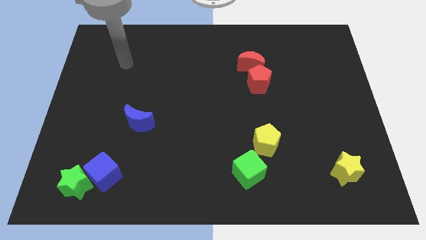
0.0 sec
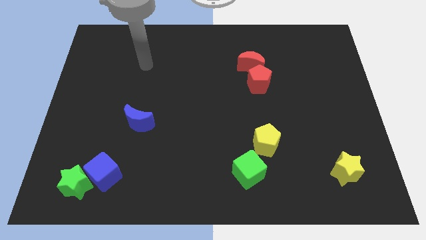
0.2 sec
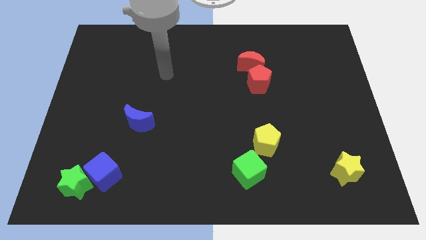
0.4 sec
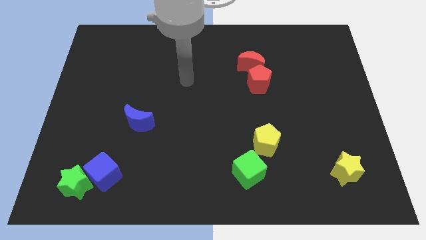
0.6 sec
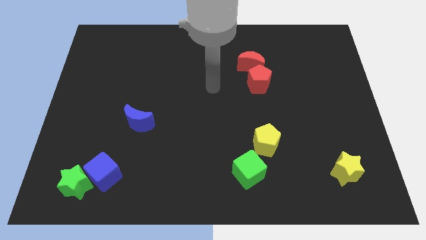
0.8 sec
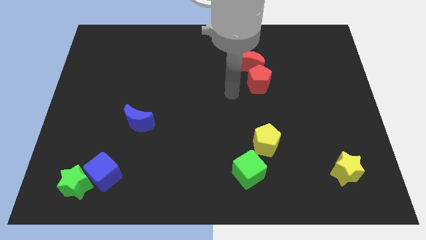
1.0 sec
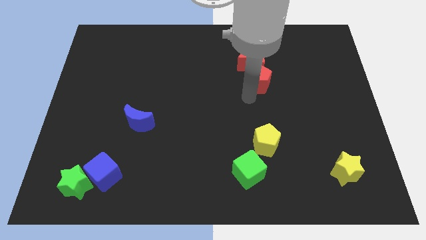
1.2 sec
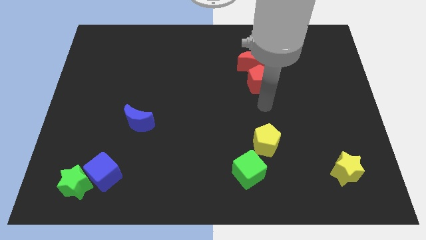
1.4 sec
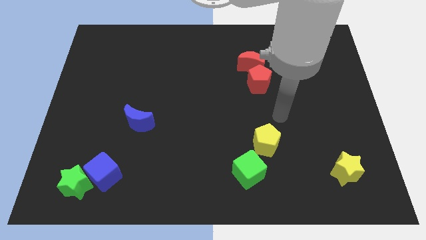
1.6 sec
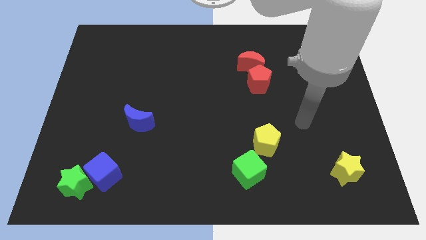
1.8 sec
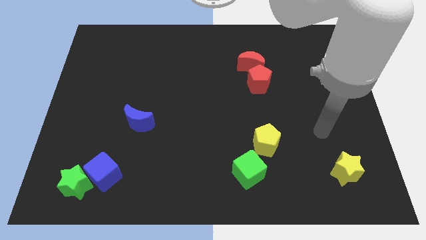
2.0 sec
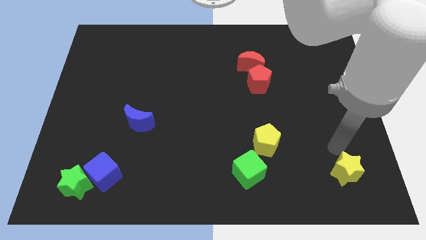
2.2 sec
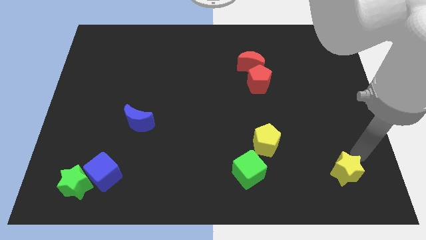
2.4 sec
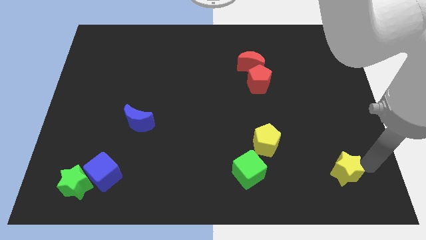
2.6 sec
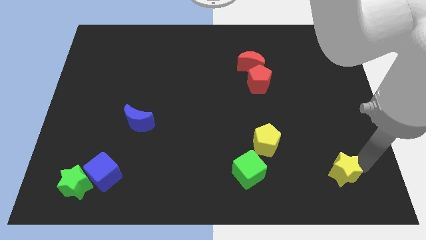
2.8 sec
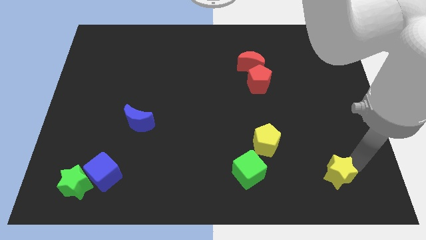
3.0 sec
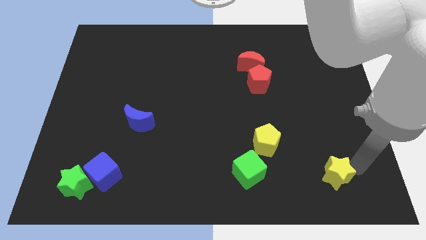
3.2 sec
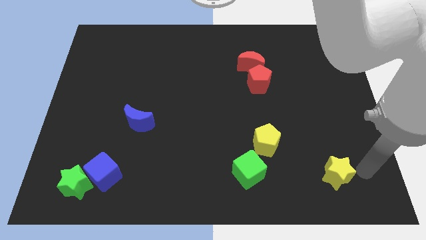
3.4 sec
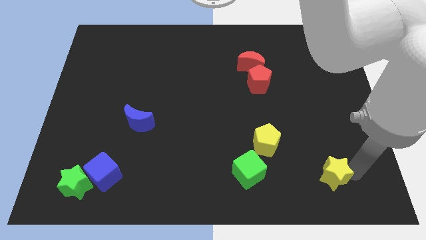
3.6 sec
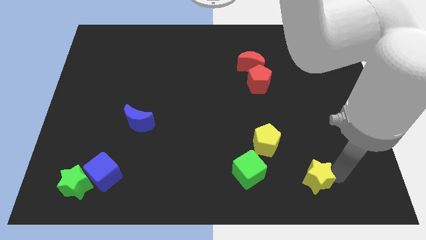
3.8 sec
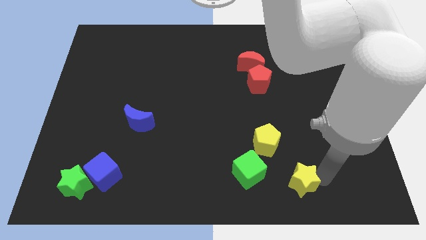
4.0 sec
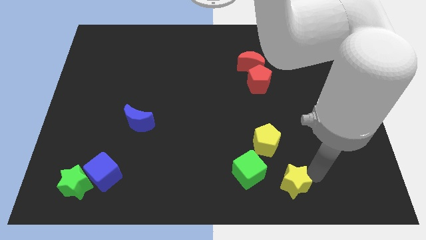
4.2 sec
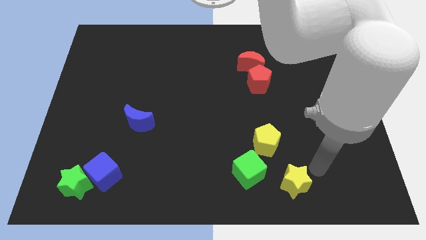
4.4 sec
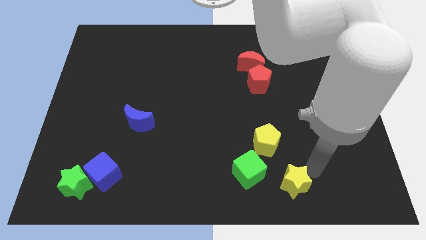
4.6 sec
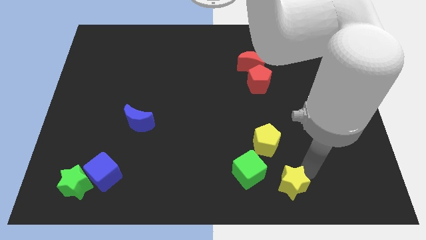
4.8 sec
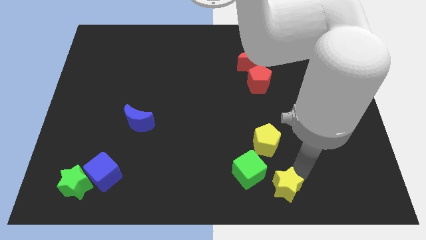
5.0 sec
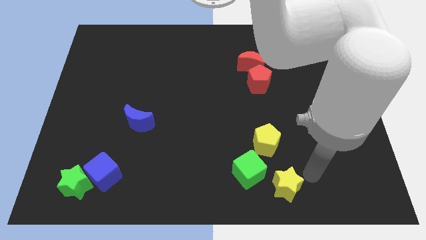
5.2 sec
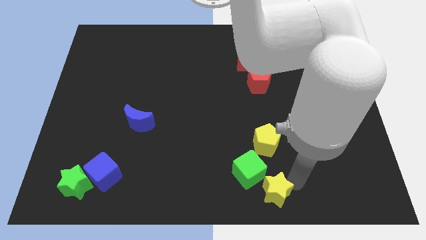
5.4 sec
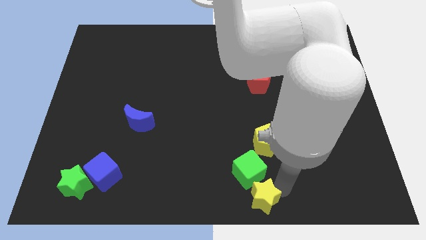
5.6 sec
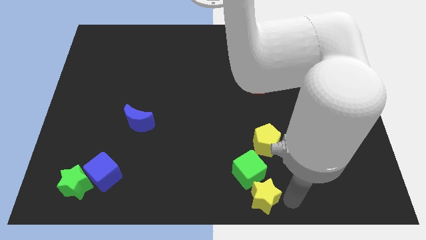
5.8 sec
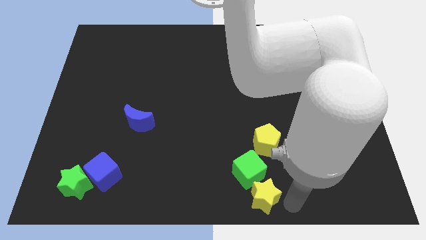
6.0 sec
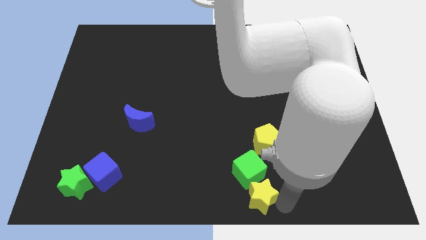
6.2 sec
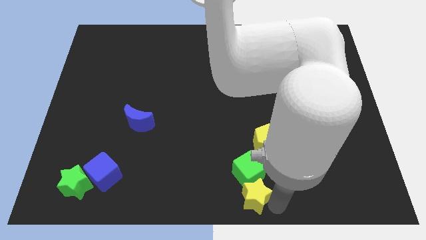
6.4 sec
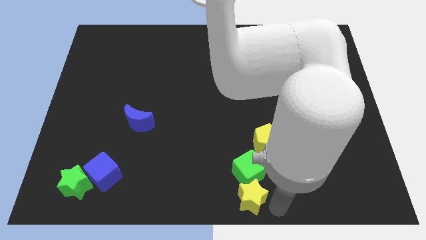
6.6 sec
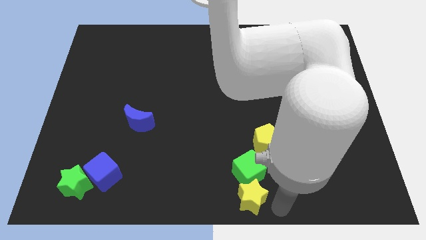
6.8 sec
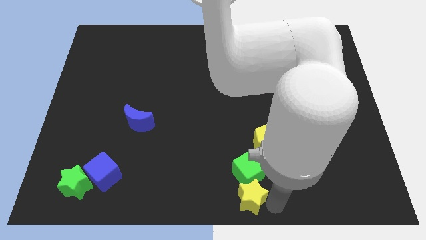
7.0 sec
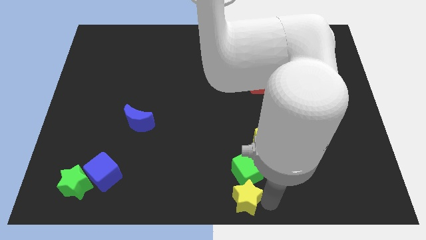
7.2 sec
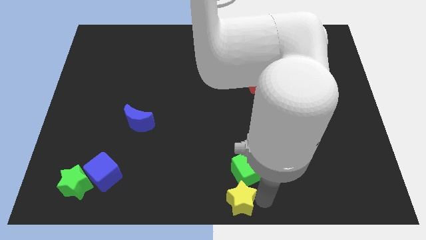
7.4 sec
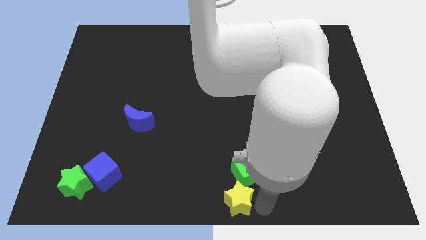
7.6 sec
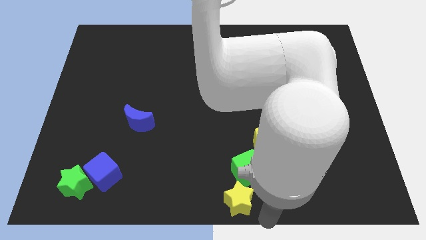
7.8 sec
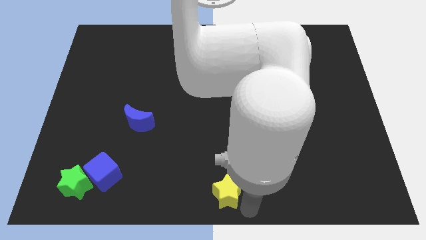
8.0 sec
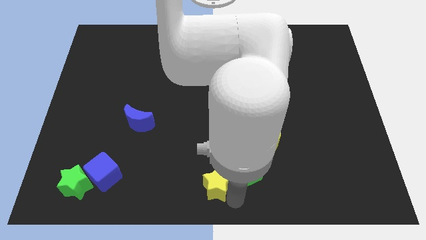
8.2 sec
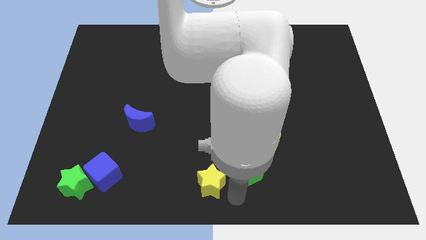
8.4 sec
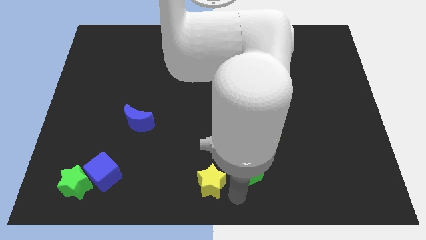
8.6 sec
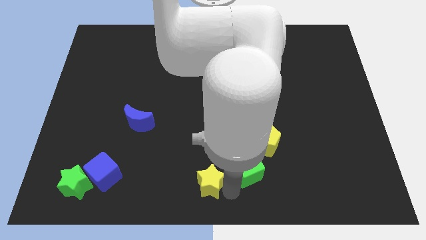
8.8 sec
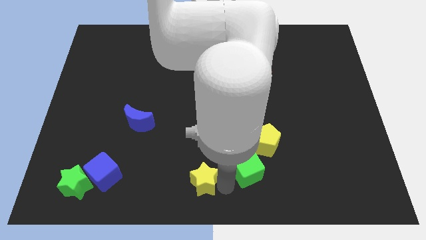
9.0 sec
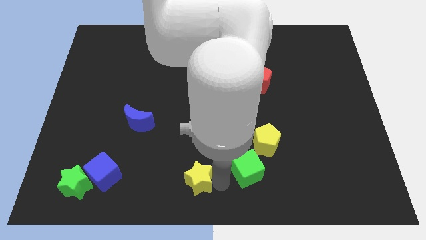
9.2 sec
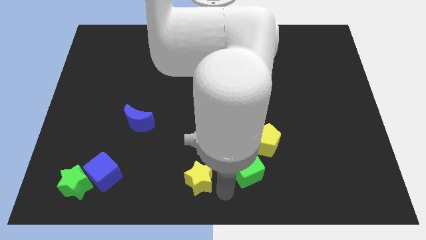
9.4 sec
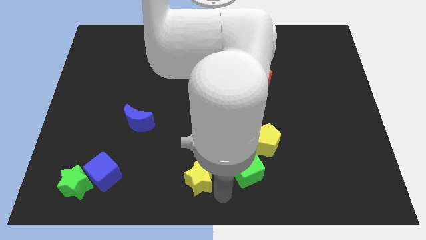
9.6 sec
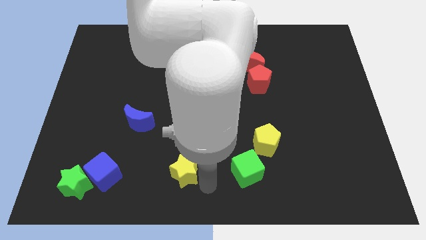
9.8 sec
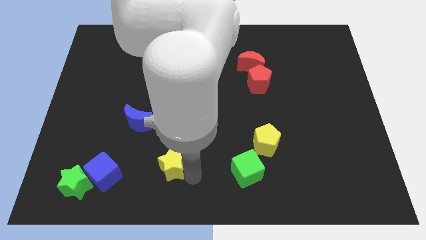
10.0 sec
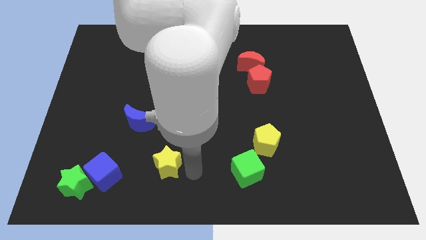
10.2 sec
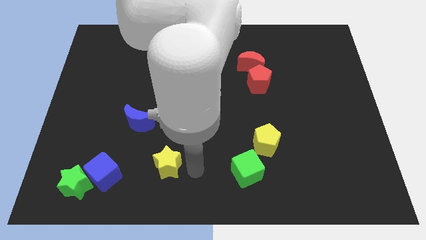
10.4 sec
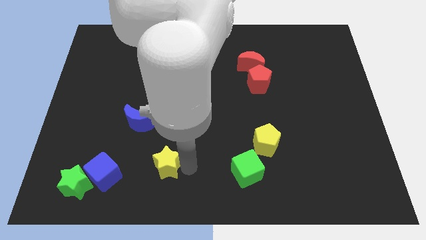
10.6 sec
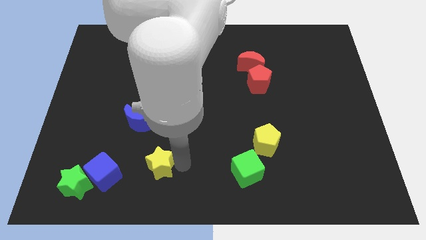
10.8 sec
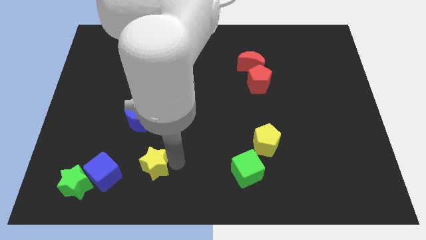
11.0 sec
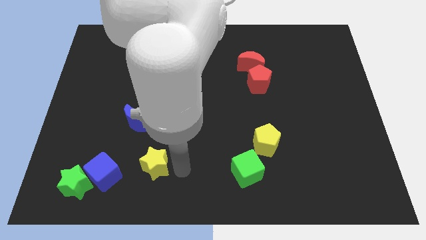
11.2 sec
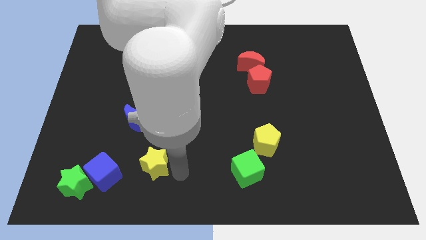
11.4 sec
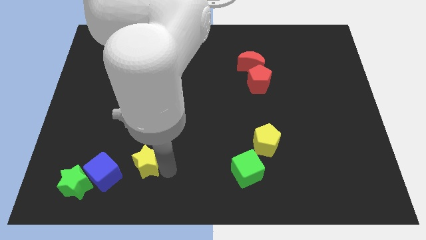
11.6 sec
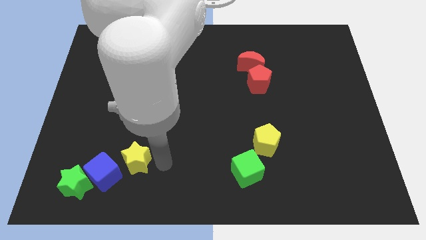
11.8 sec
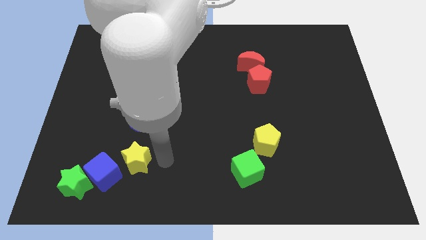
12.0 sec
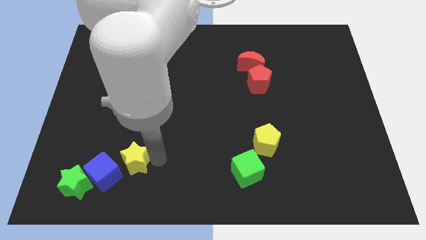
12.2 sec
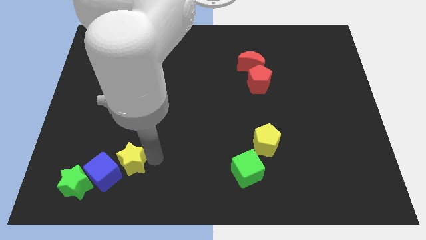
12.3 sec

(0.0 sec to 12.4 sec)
push the yellow star to the top right side of the green star
